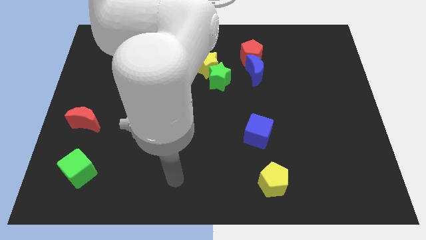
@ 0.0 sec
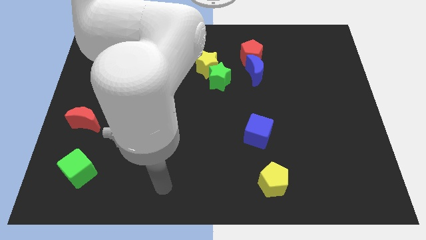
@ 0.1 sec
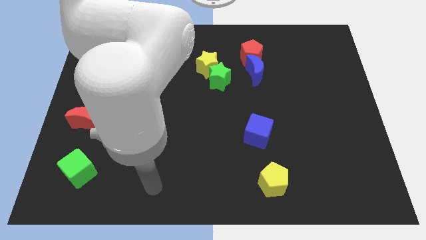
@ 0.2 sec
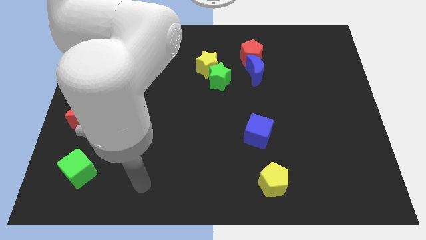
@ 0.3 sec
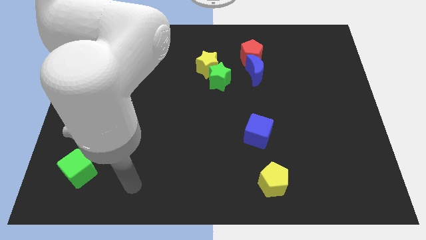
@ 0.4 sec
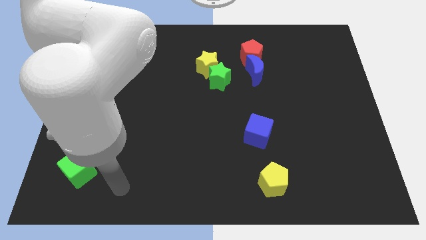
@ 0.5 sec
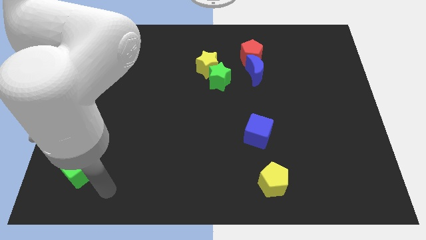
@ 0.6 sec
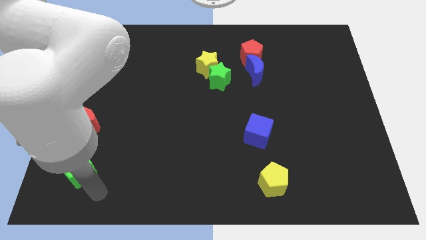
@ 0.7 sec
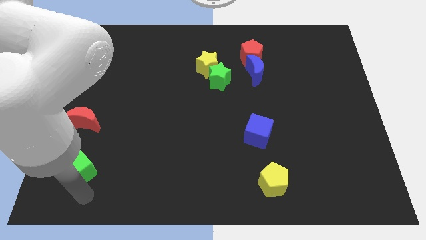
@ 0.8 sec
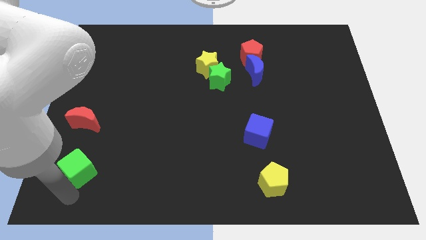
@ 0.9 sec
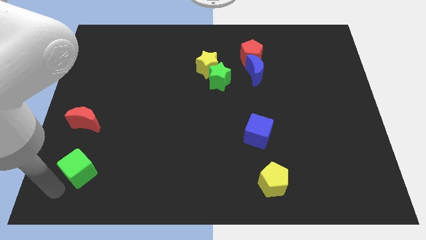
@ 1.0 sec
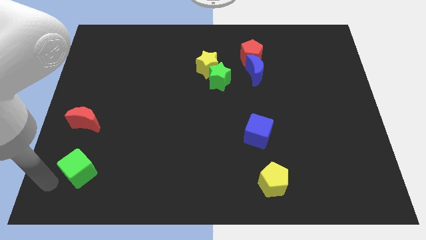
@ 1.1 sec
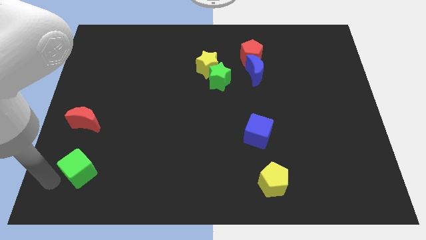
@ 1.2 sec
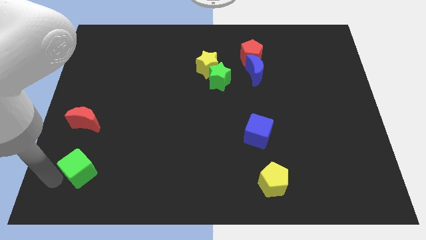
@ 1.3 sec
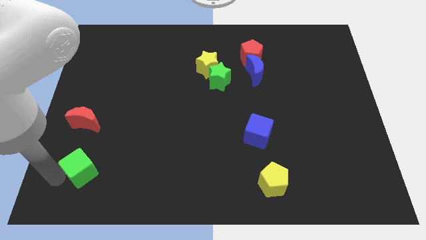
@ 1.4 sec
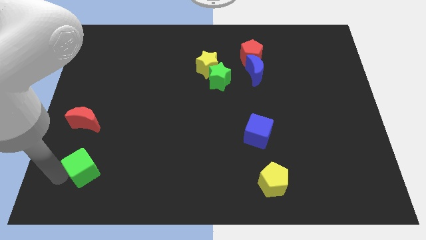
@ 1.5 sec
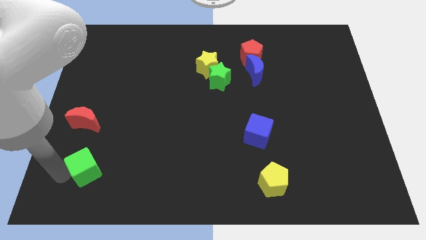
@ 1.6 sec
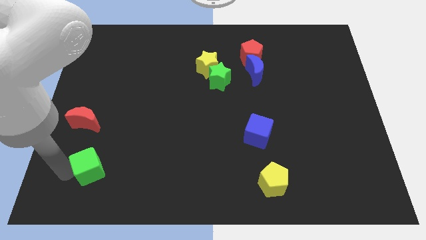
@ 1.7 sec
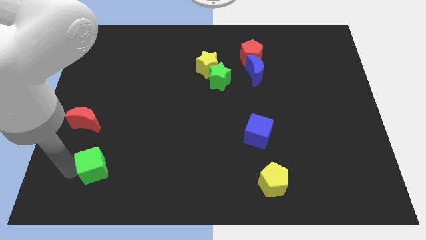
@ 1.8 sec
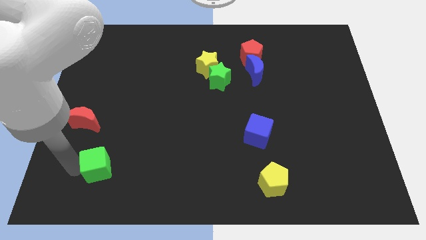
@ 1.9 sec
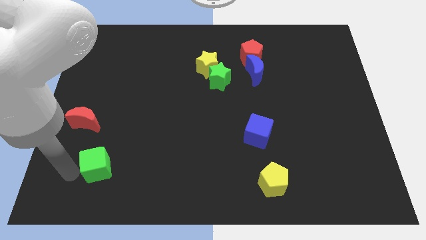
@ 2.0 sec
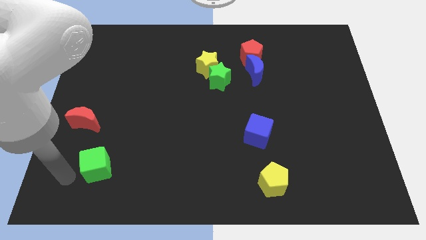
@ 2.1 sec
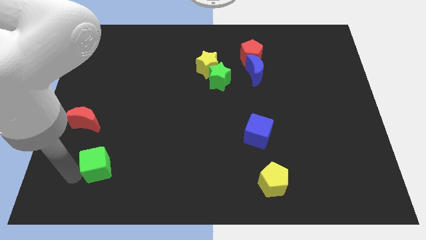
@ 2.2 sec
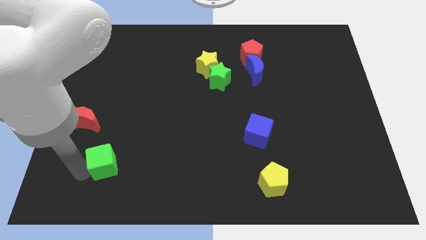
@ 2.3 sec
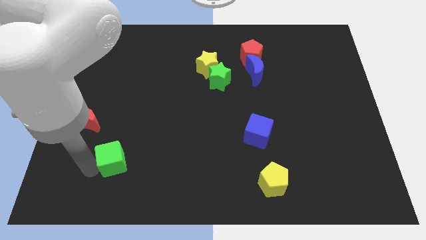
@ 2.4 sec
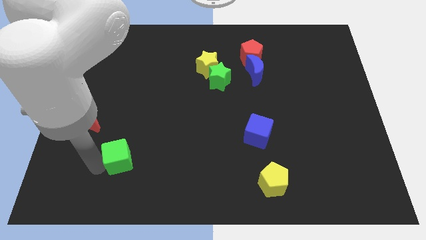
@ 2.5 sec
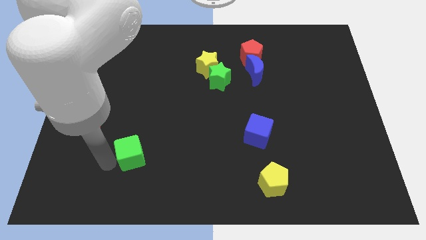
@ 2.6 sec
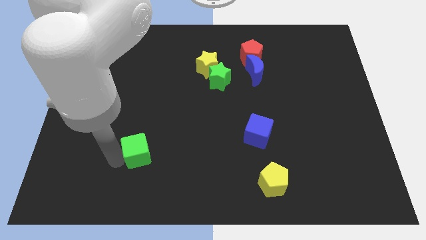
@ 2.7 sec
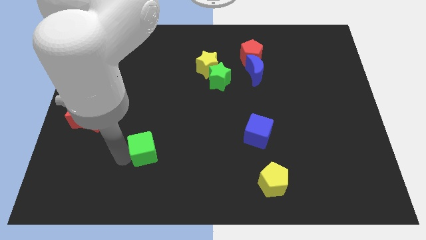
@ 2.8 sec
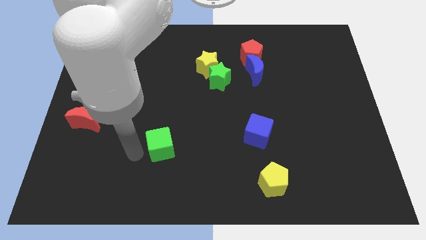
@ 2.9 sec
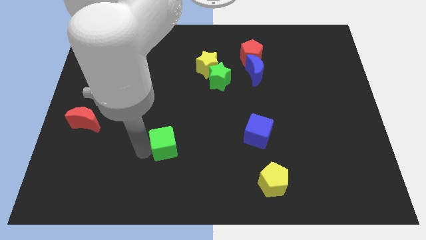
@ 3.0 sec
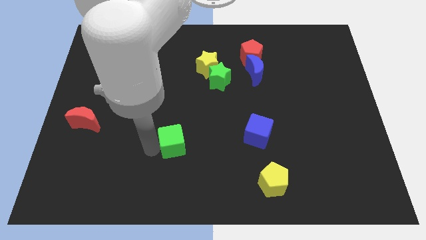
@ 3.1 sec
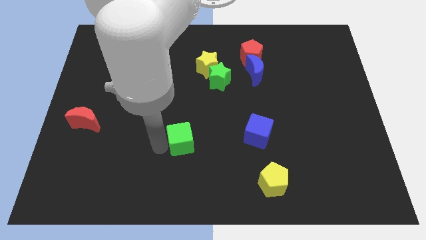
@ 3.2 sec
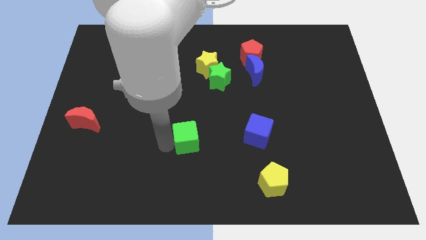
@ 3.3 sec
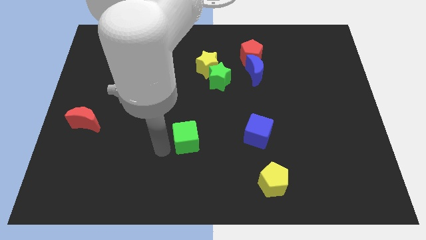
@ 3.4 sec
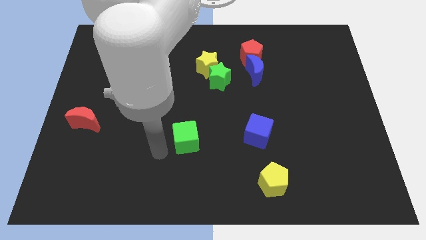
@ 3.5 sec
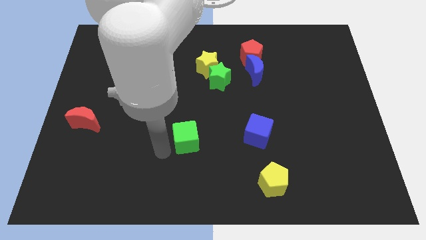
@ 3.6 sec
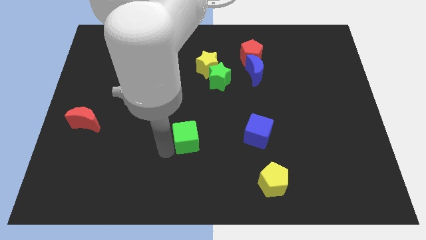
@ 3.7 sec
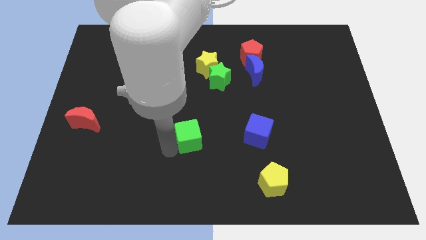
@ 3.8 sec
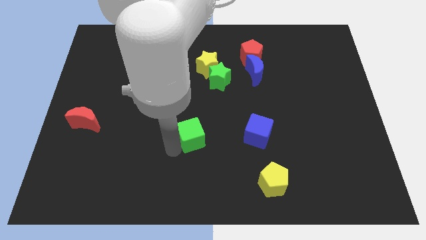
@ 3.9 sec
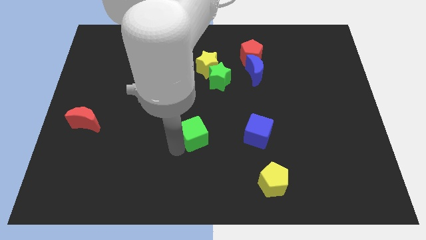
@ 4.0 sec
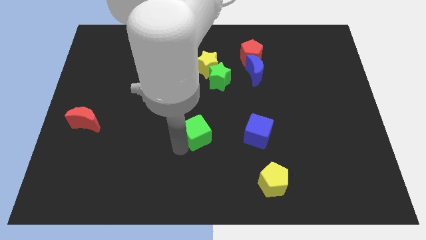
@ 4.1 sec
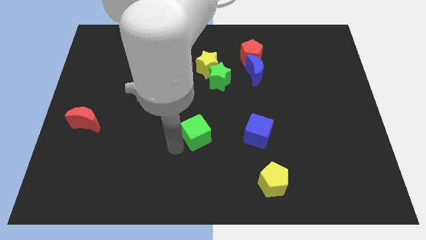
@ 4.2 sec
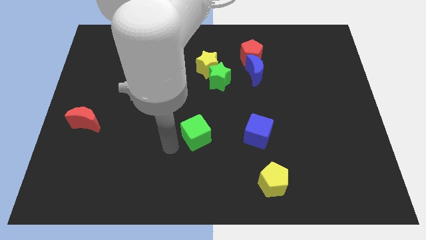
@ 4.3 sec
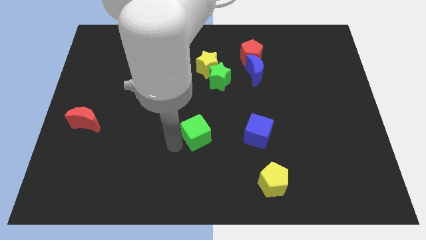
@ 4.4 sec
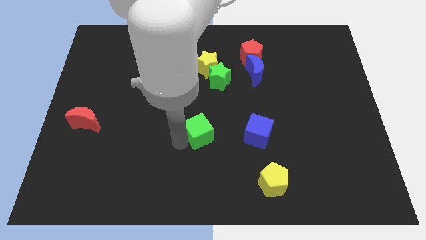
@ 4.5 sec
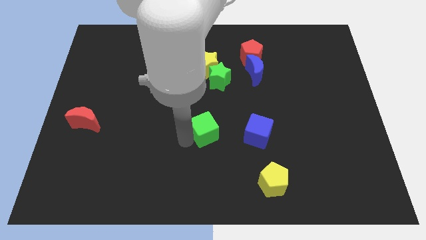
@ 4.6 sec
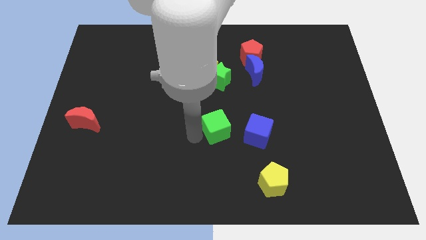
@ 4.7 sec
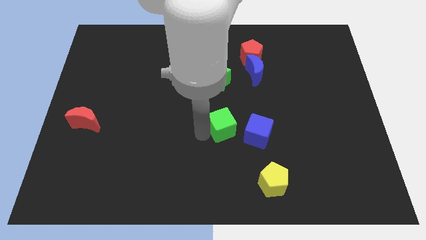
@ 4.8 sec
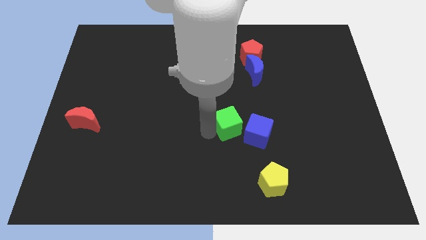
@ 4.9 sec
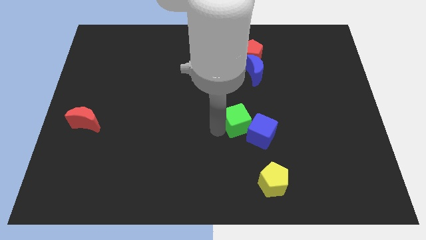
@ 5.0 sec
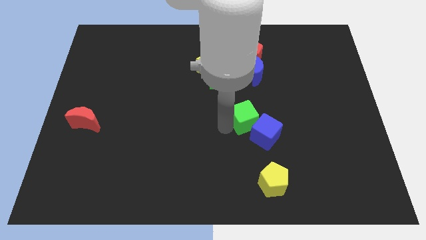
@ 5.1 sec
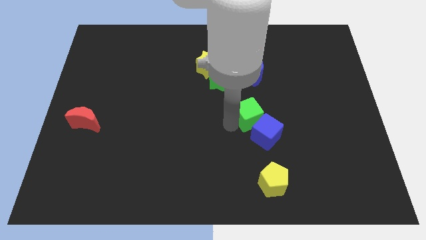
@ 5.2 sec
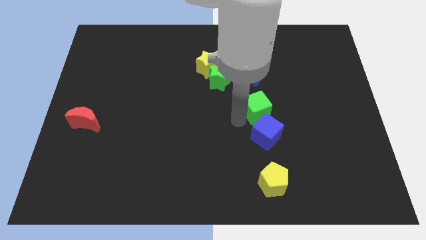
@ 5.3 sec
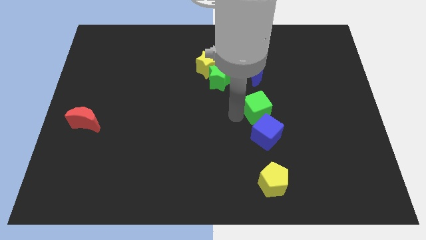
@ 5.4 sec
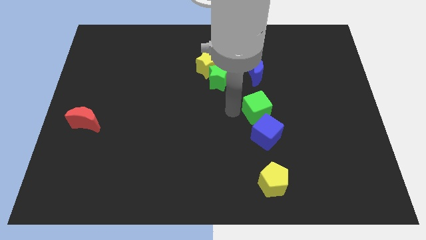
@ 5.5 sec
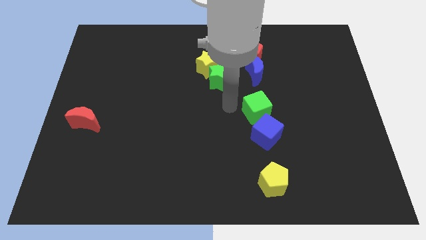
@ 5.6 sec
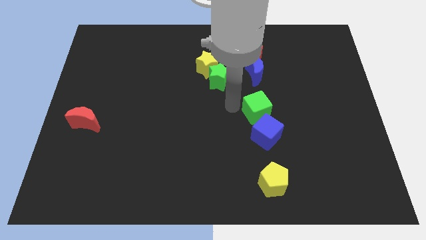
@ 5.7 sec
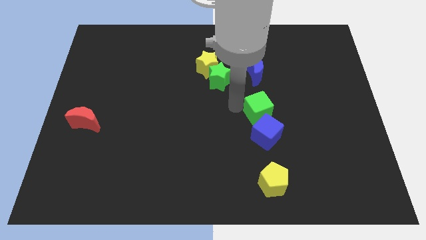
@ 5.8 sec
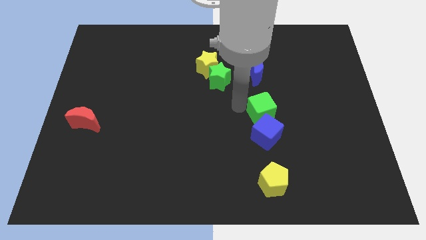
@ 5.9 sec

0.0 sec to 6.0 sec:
slide the green cube to the top right side of the blue cube
